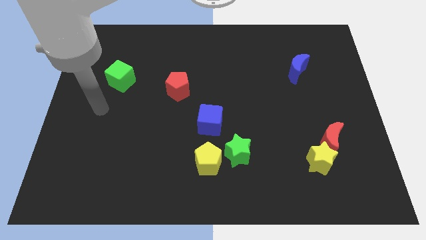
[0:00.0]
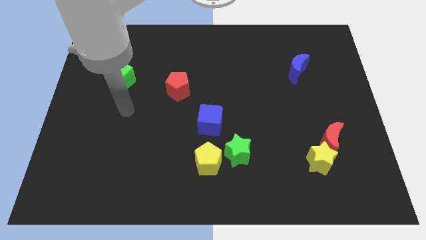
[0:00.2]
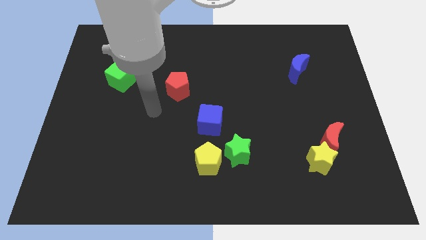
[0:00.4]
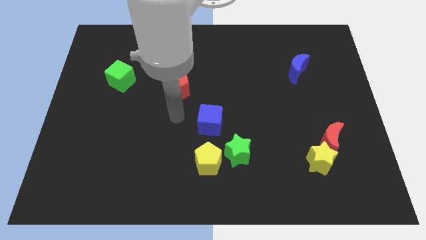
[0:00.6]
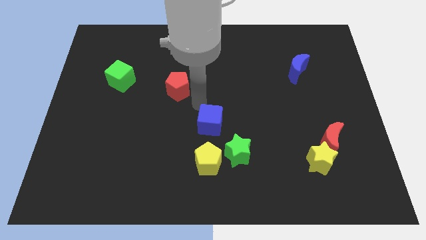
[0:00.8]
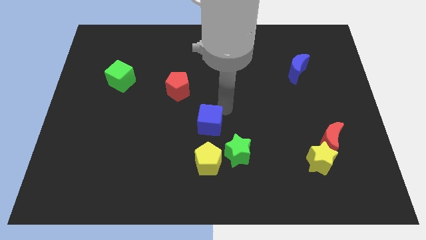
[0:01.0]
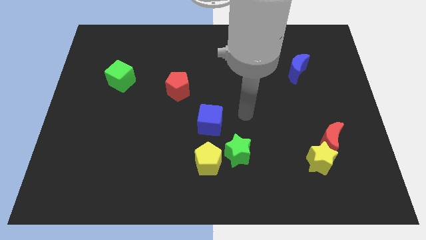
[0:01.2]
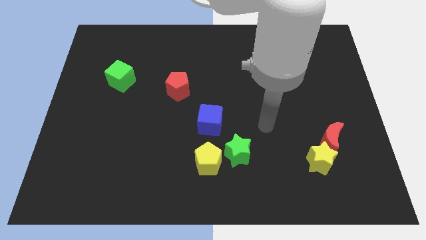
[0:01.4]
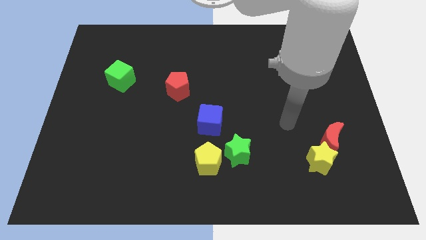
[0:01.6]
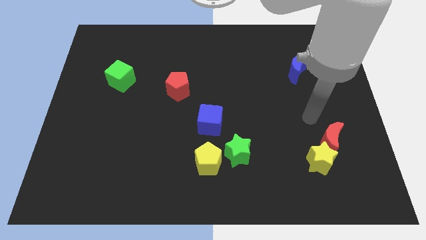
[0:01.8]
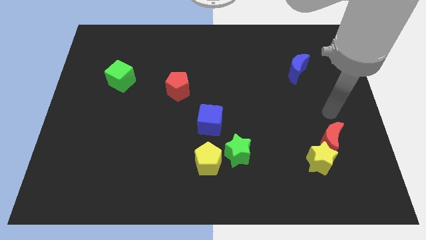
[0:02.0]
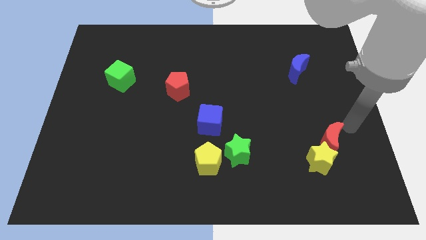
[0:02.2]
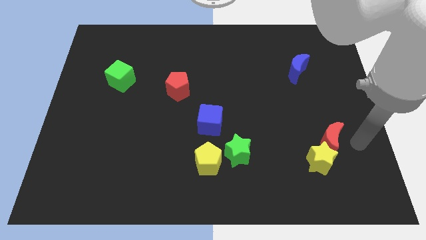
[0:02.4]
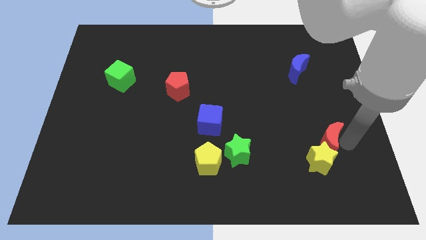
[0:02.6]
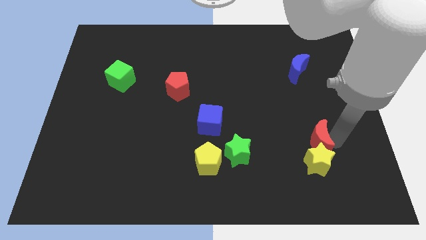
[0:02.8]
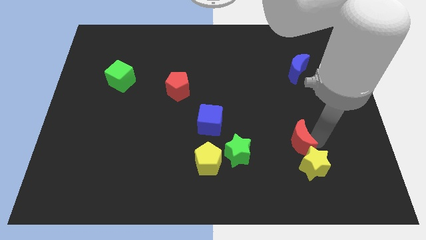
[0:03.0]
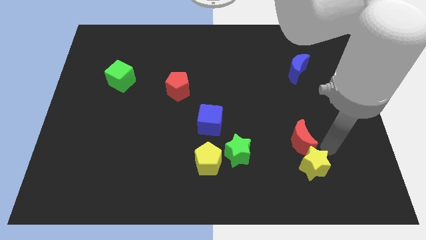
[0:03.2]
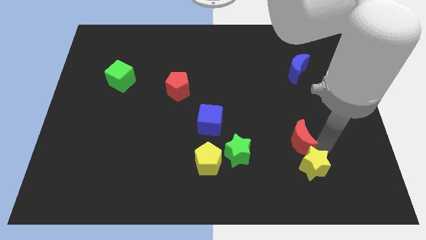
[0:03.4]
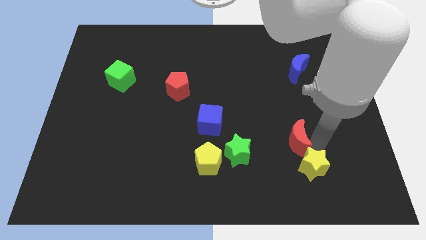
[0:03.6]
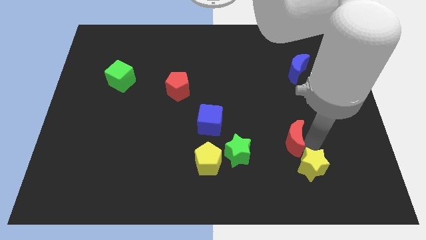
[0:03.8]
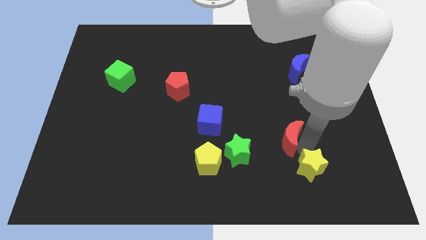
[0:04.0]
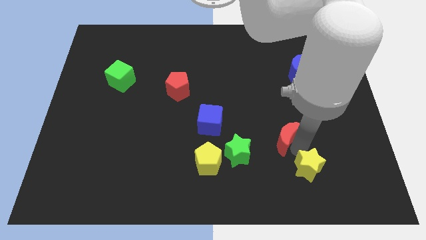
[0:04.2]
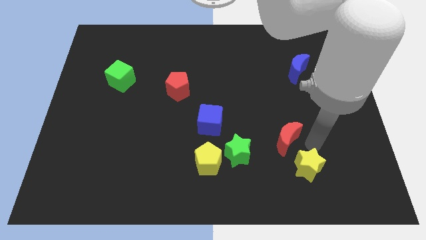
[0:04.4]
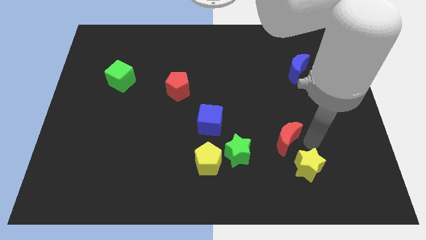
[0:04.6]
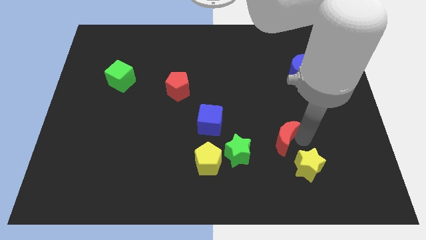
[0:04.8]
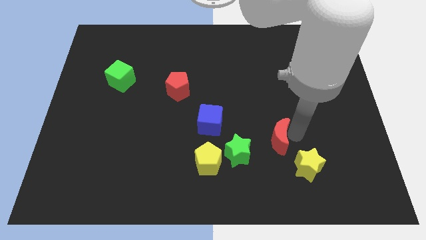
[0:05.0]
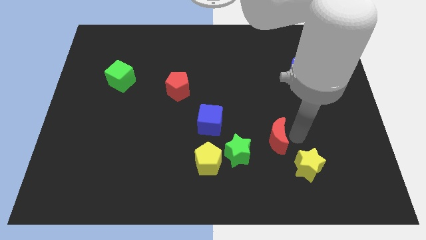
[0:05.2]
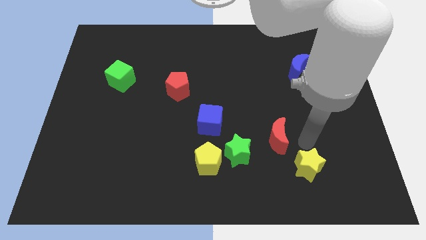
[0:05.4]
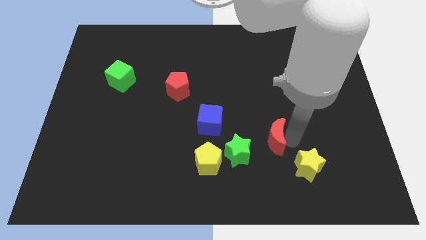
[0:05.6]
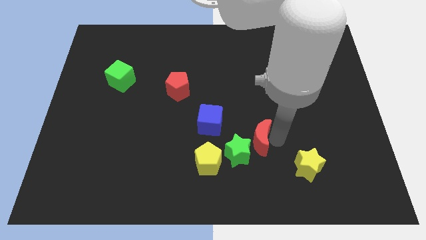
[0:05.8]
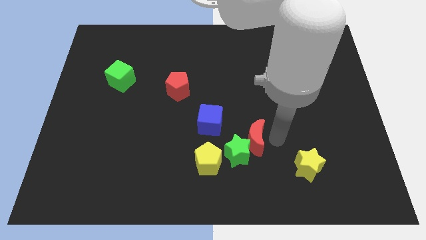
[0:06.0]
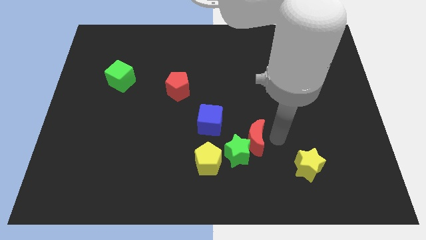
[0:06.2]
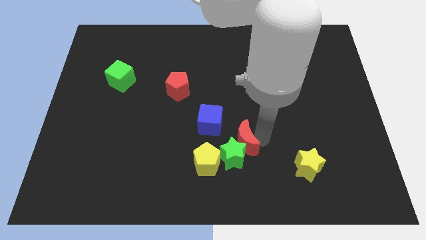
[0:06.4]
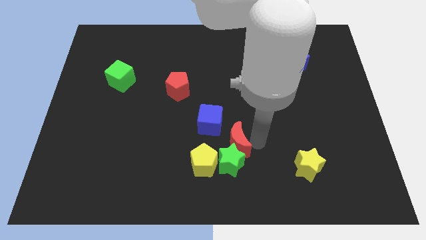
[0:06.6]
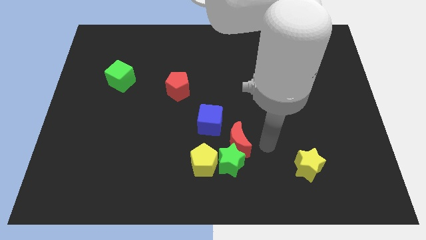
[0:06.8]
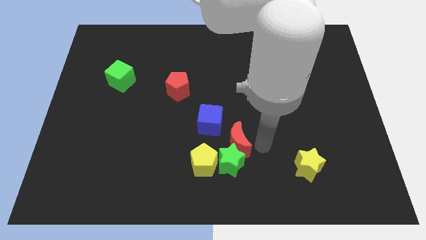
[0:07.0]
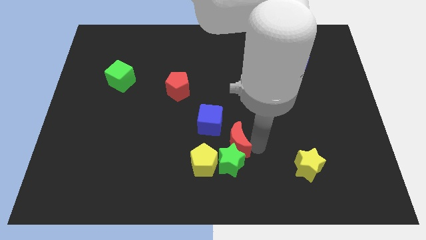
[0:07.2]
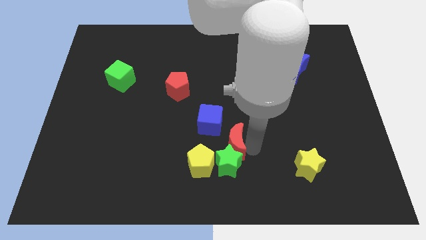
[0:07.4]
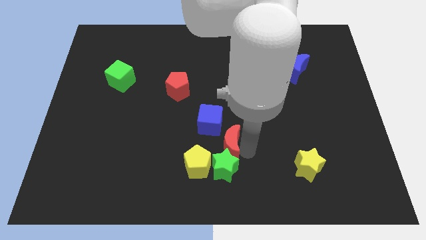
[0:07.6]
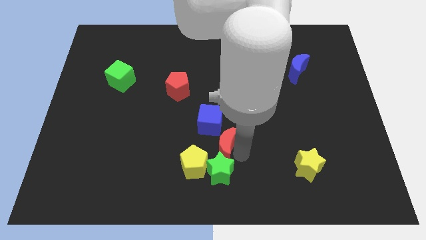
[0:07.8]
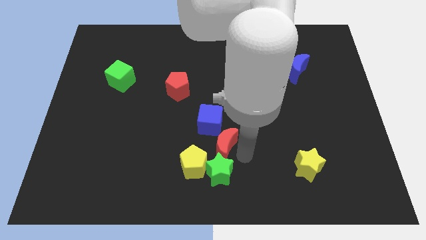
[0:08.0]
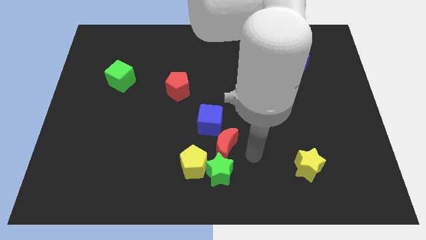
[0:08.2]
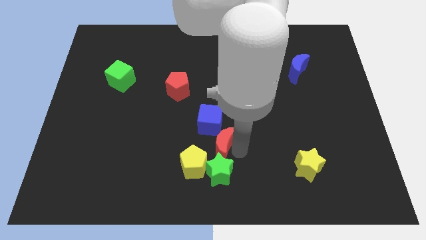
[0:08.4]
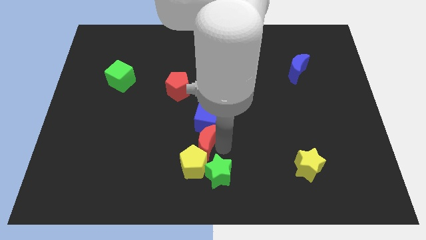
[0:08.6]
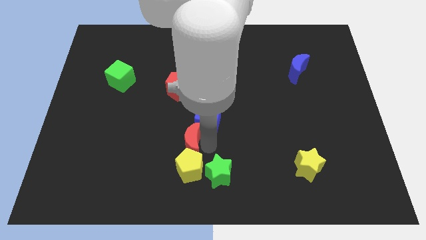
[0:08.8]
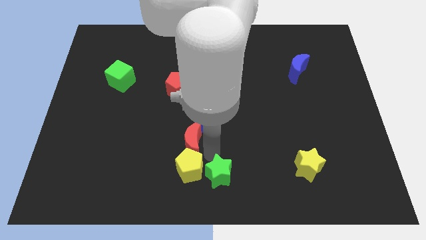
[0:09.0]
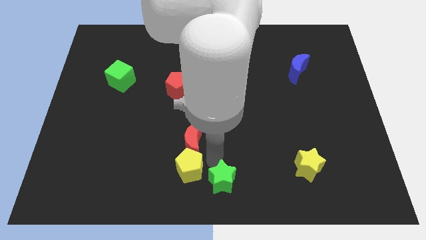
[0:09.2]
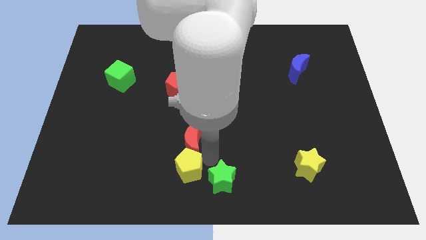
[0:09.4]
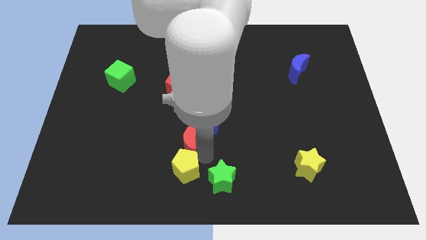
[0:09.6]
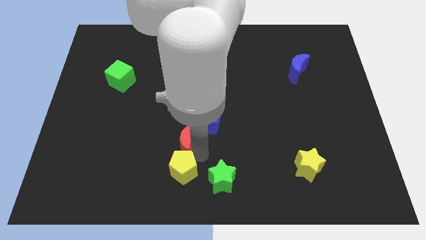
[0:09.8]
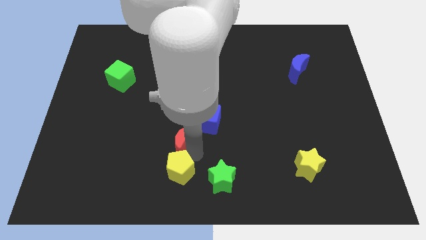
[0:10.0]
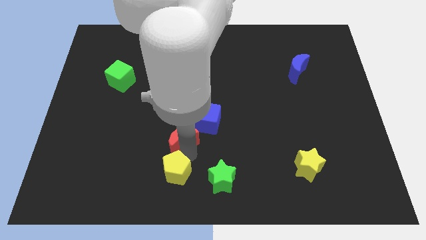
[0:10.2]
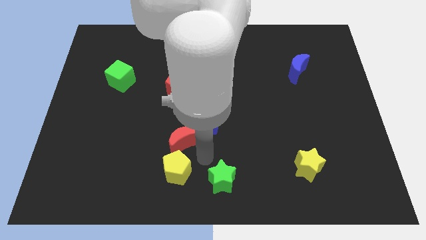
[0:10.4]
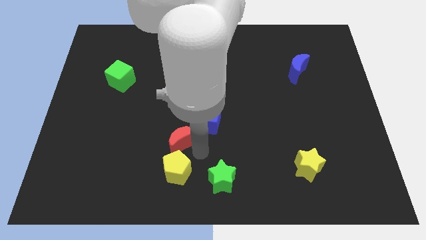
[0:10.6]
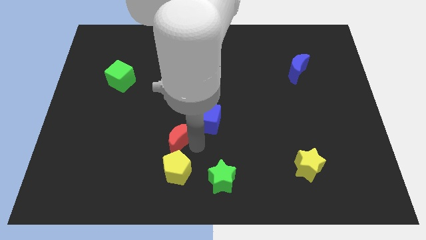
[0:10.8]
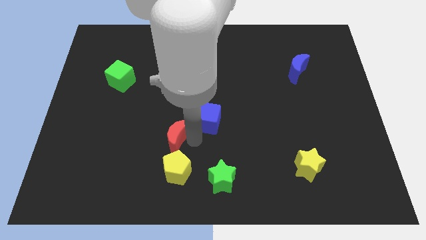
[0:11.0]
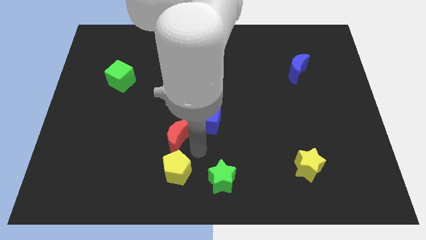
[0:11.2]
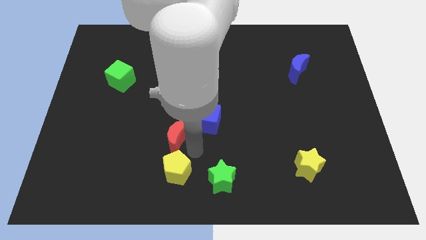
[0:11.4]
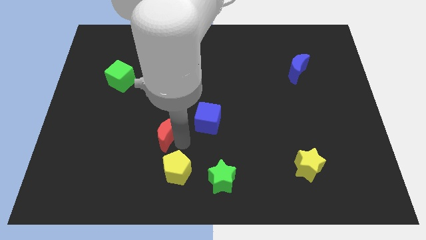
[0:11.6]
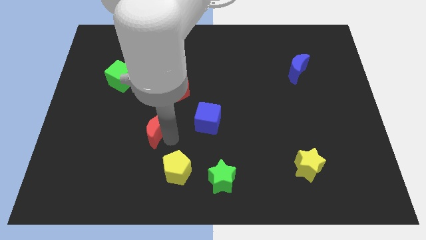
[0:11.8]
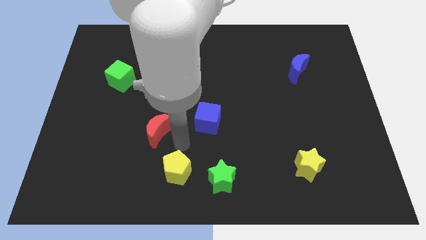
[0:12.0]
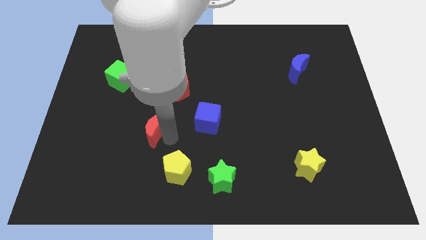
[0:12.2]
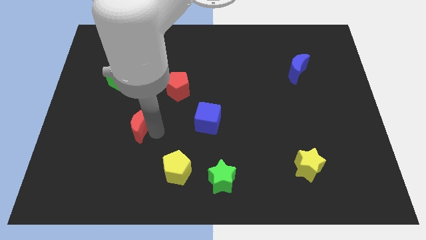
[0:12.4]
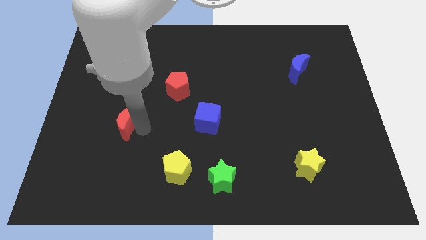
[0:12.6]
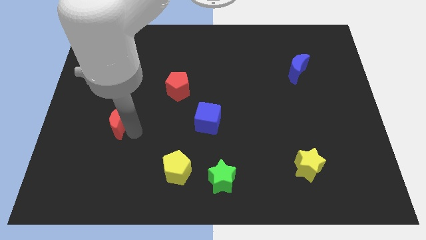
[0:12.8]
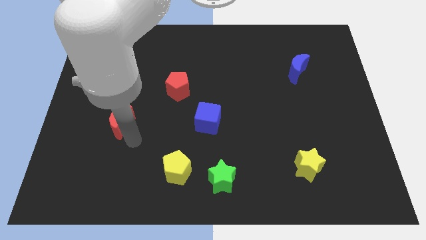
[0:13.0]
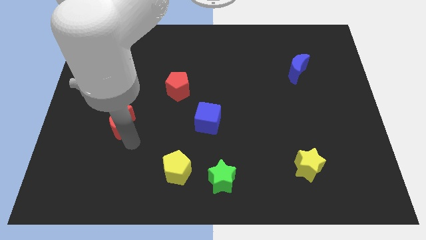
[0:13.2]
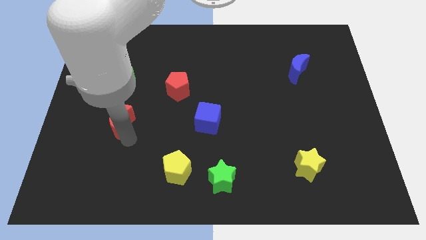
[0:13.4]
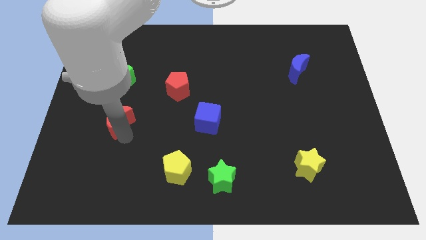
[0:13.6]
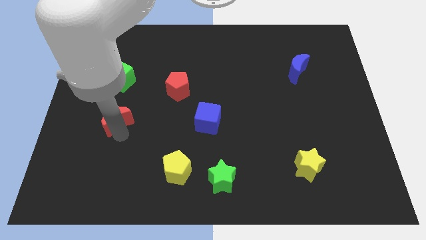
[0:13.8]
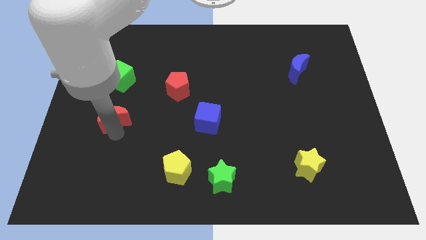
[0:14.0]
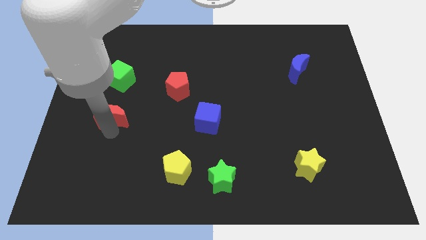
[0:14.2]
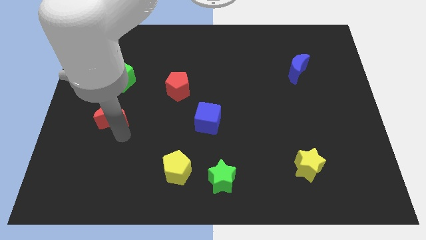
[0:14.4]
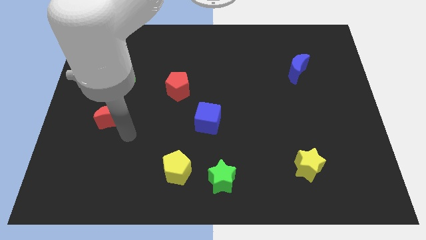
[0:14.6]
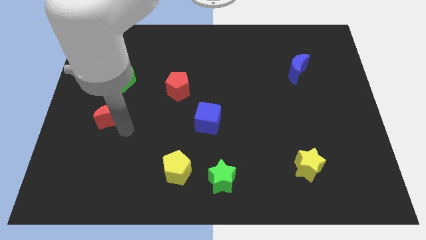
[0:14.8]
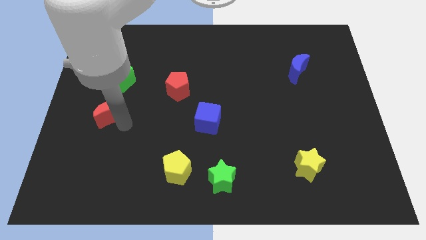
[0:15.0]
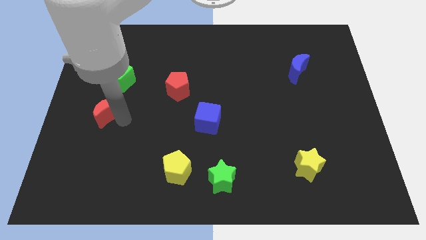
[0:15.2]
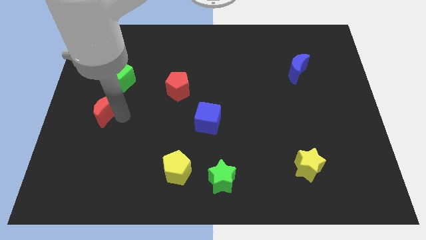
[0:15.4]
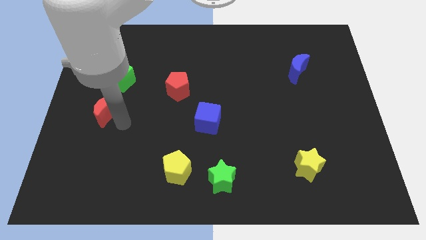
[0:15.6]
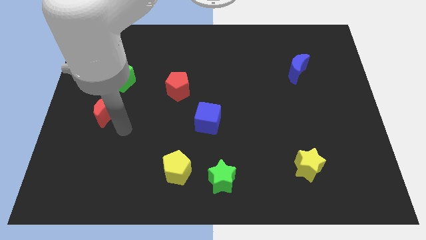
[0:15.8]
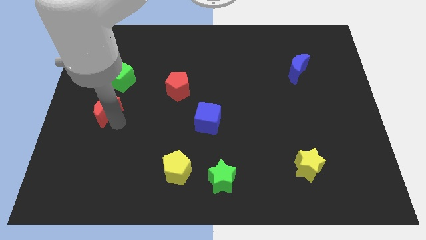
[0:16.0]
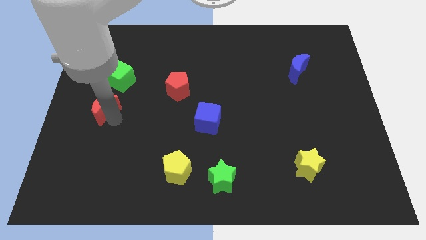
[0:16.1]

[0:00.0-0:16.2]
move the red moon to the center left
